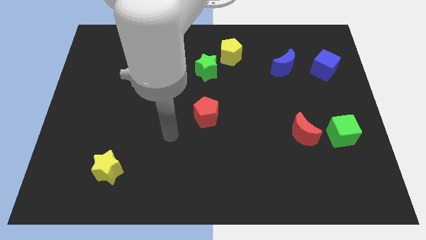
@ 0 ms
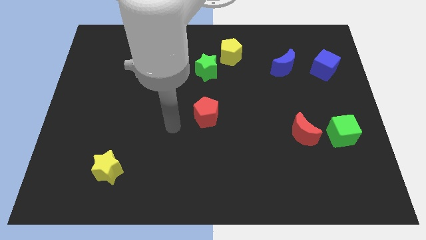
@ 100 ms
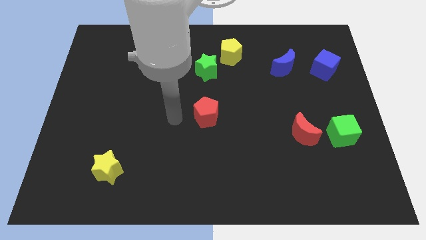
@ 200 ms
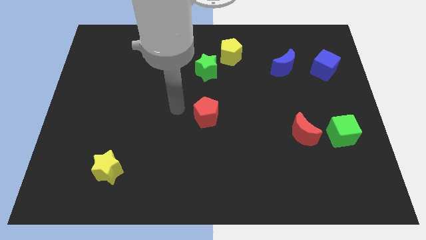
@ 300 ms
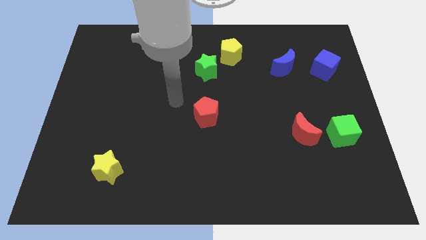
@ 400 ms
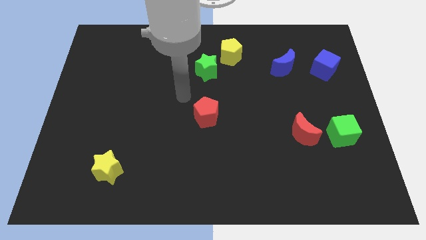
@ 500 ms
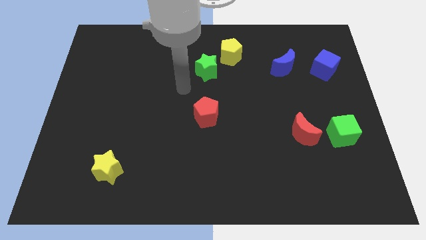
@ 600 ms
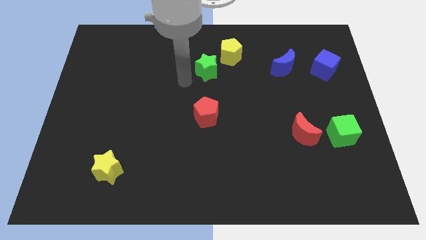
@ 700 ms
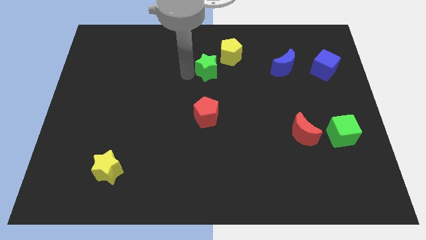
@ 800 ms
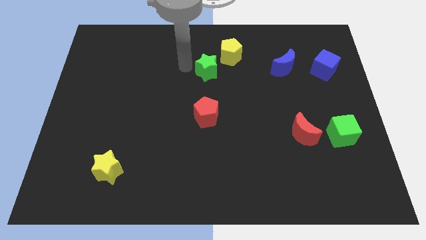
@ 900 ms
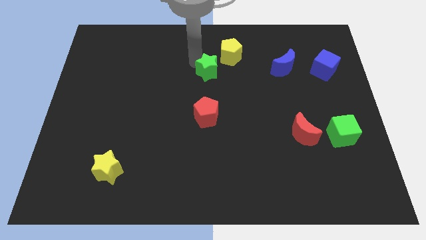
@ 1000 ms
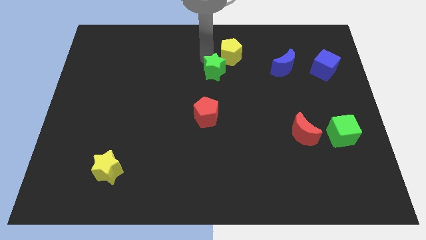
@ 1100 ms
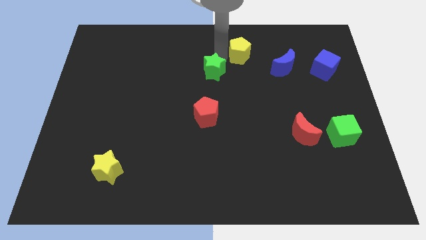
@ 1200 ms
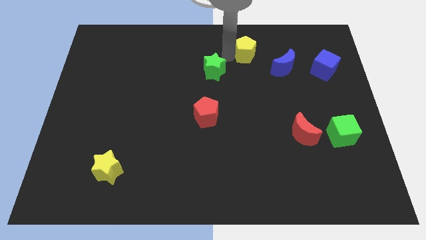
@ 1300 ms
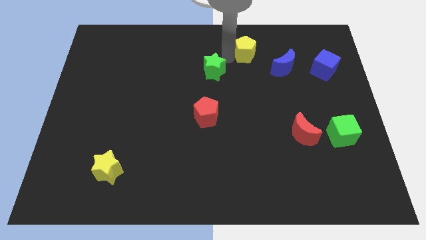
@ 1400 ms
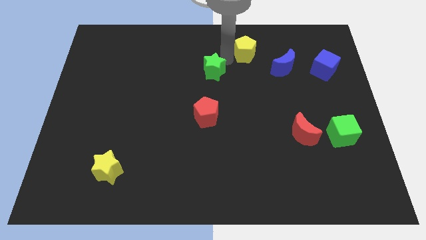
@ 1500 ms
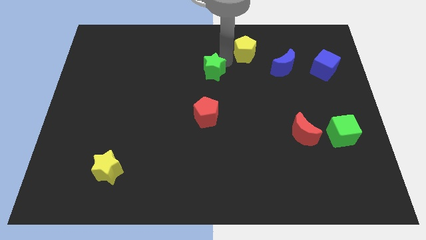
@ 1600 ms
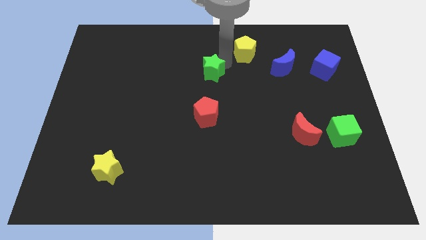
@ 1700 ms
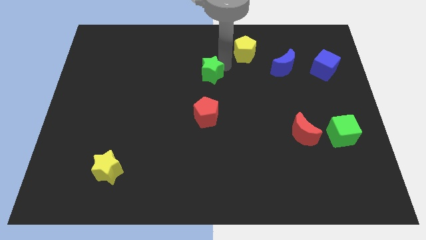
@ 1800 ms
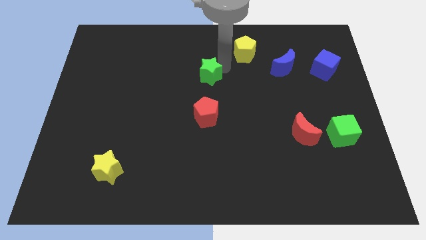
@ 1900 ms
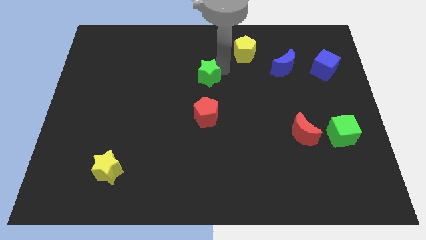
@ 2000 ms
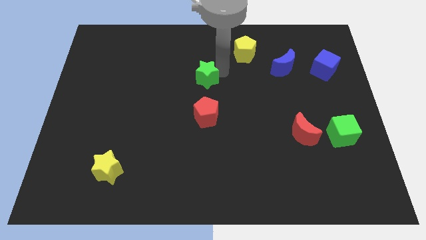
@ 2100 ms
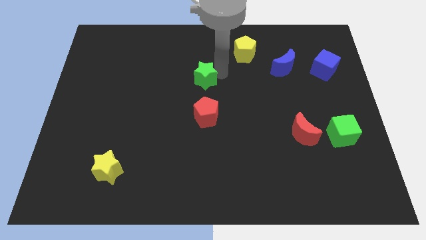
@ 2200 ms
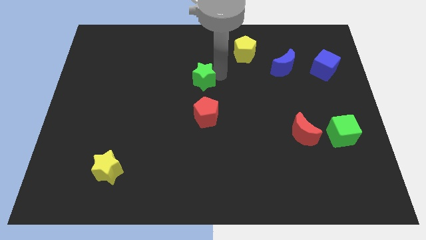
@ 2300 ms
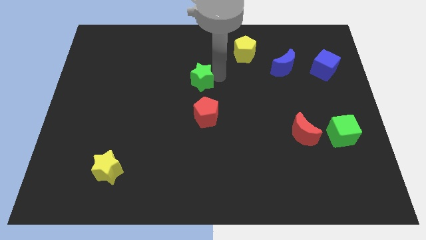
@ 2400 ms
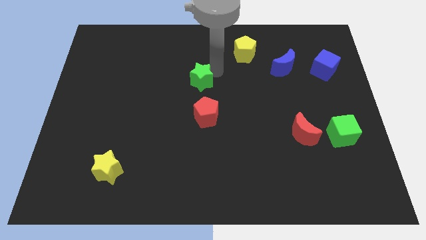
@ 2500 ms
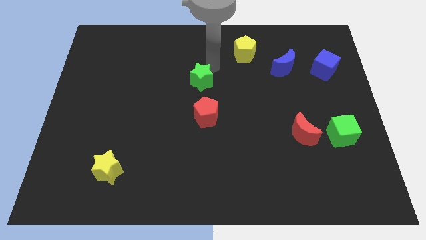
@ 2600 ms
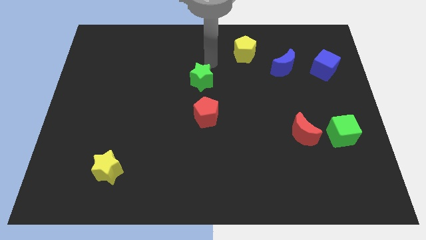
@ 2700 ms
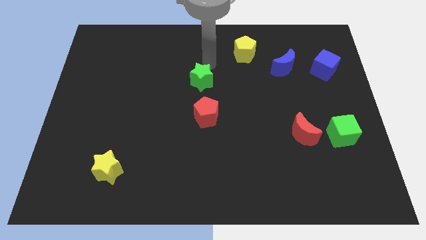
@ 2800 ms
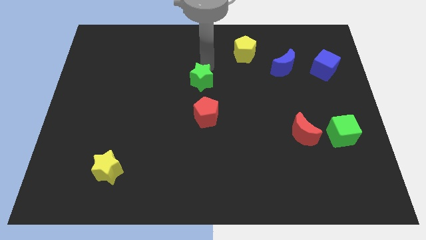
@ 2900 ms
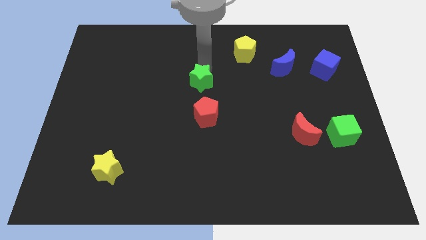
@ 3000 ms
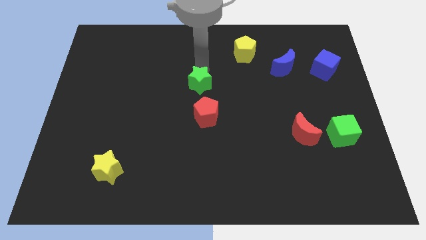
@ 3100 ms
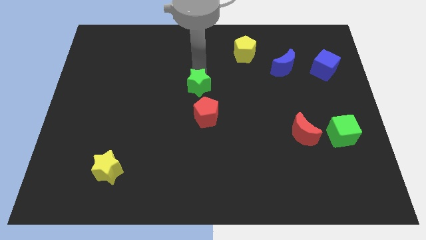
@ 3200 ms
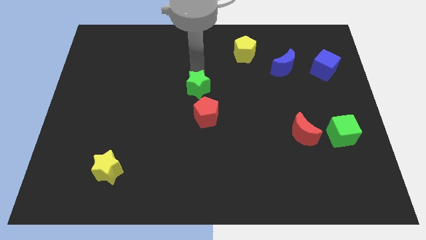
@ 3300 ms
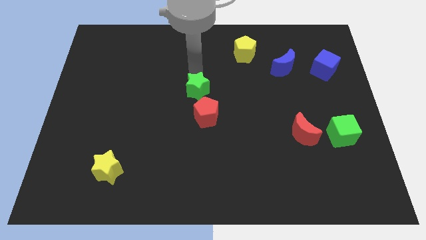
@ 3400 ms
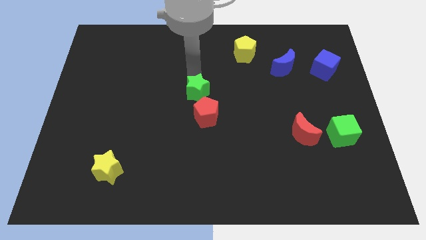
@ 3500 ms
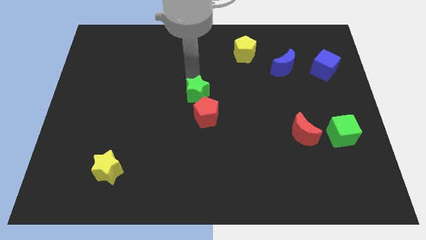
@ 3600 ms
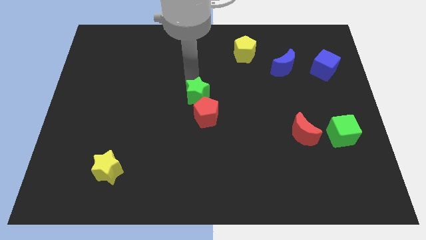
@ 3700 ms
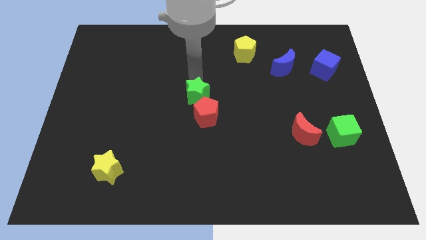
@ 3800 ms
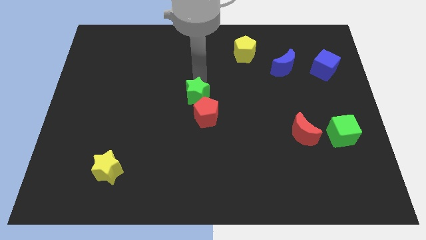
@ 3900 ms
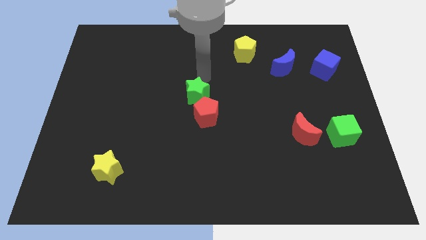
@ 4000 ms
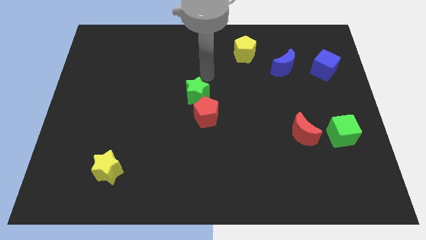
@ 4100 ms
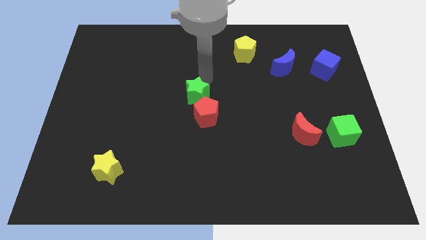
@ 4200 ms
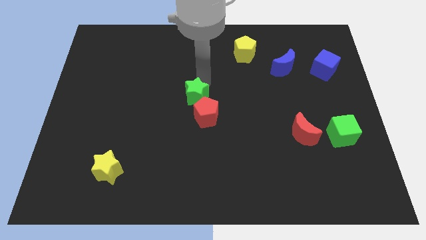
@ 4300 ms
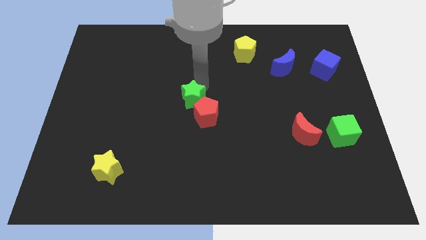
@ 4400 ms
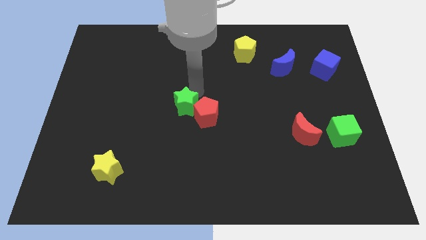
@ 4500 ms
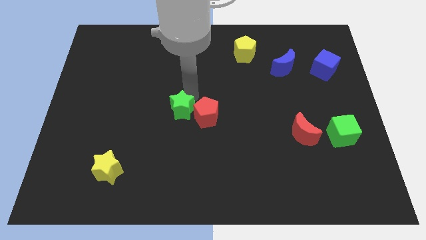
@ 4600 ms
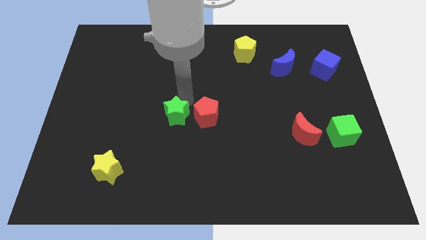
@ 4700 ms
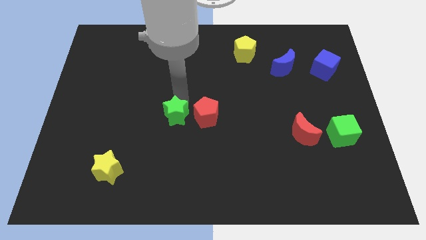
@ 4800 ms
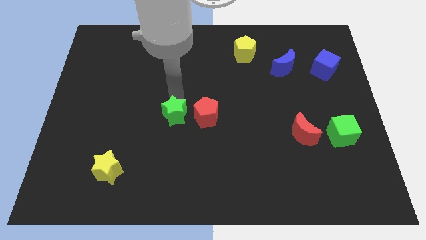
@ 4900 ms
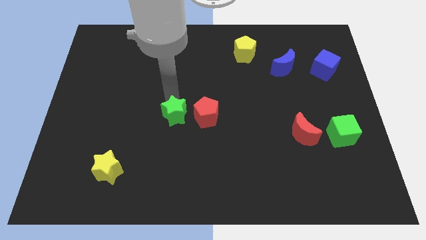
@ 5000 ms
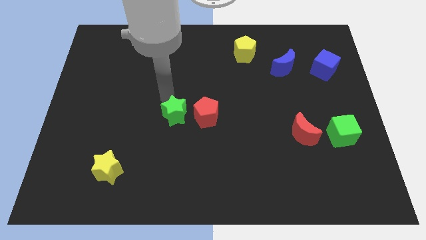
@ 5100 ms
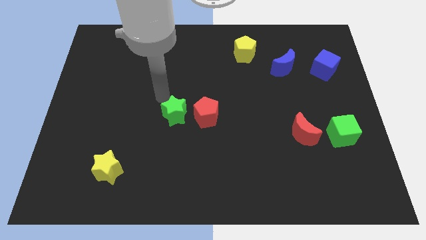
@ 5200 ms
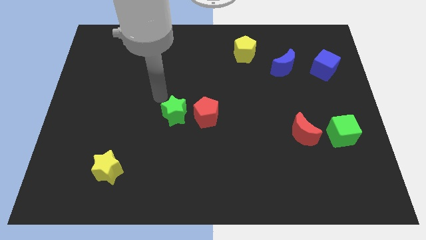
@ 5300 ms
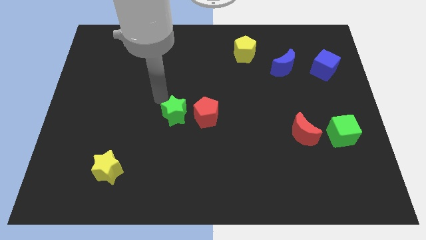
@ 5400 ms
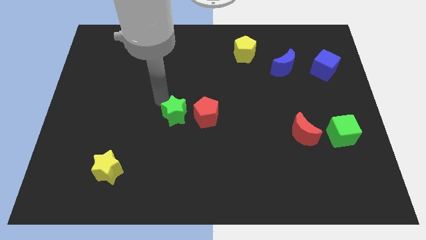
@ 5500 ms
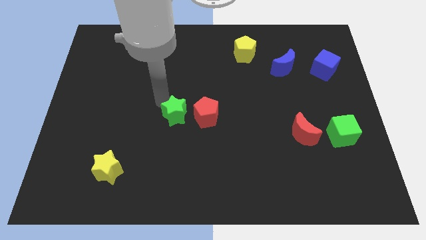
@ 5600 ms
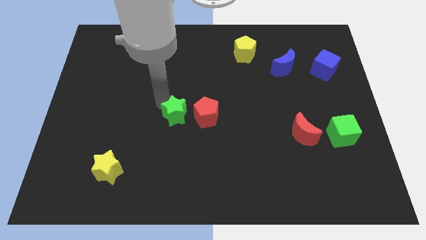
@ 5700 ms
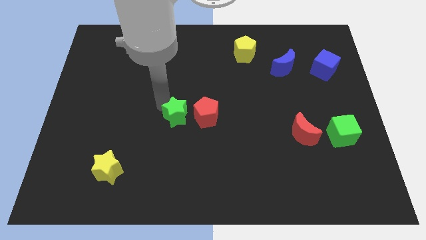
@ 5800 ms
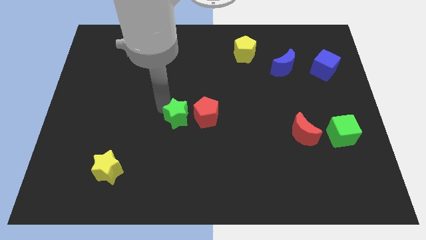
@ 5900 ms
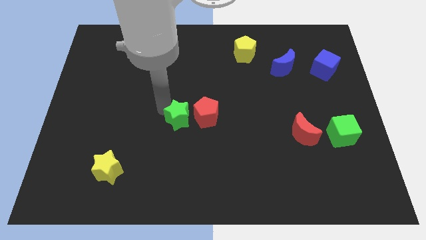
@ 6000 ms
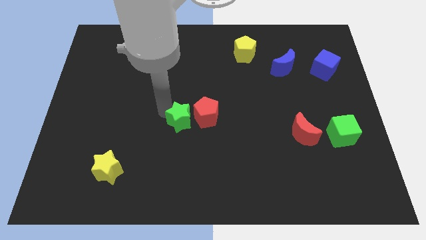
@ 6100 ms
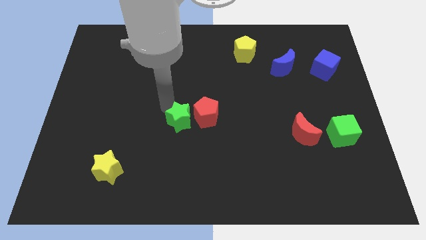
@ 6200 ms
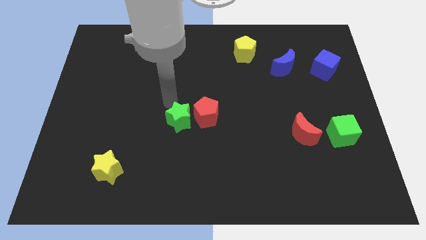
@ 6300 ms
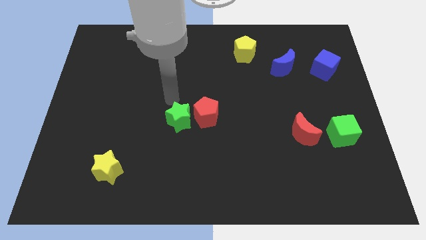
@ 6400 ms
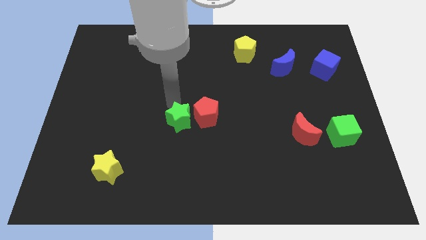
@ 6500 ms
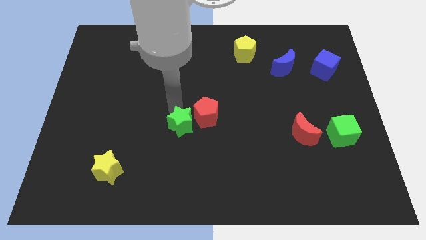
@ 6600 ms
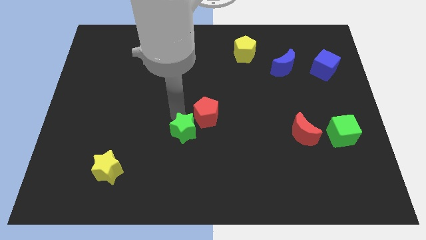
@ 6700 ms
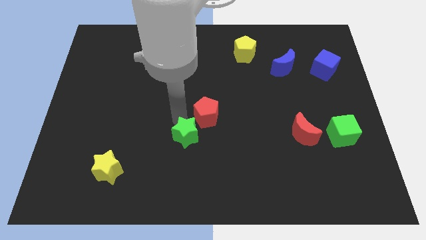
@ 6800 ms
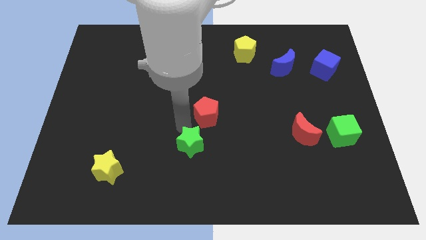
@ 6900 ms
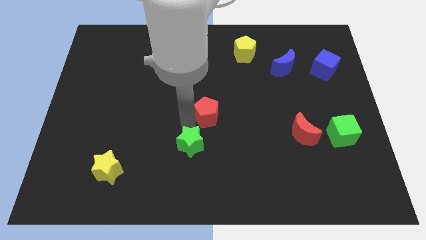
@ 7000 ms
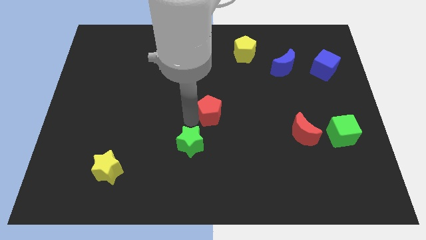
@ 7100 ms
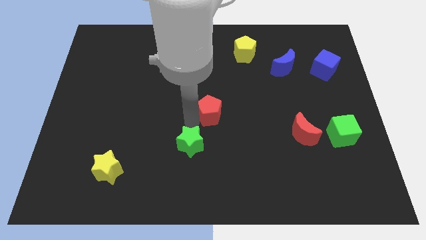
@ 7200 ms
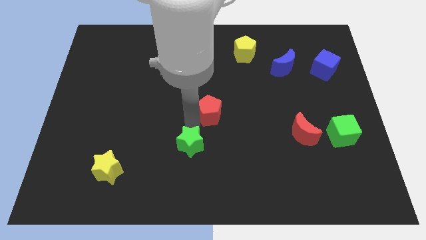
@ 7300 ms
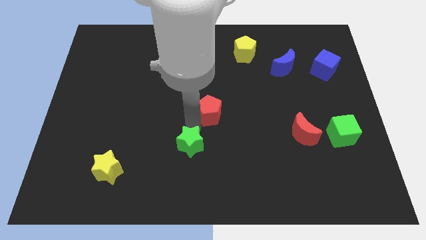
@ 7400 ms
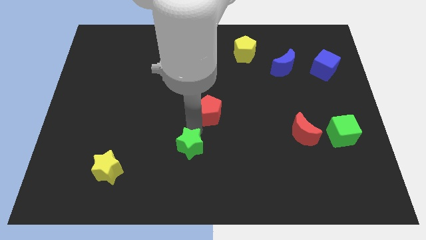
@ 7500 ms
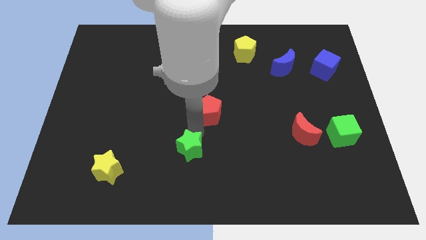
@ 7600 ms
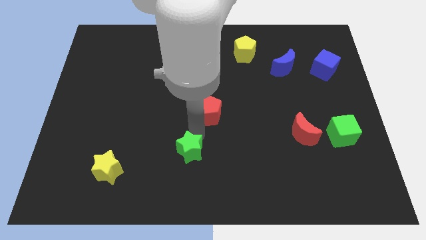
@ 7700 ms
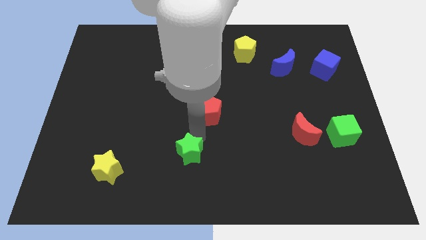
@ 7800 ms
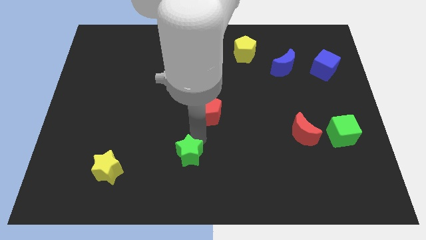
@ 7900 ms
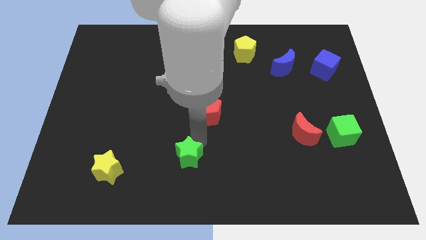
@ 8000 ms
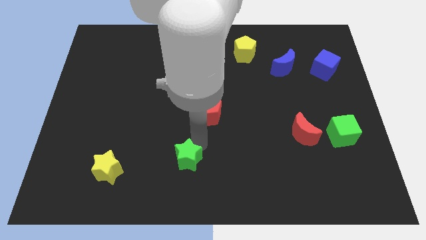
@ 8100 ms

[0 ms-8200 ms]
push the green star to the bottom side
